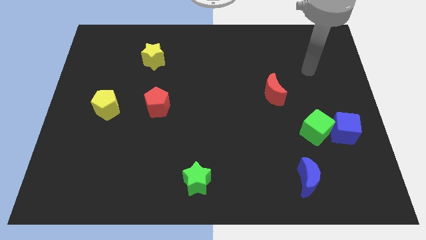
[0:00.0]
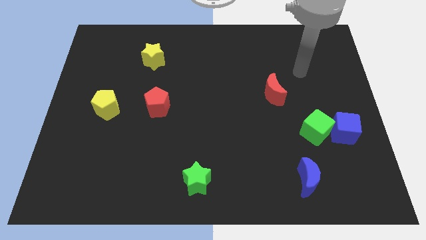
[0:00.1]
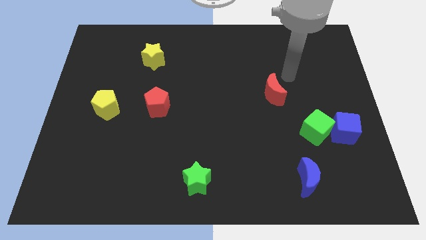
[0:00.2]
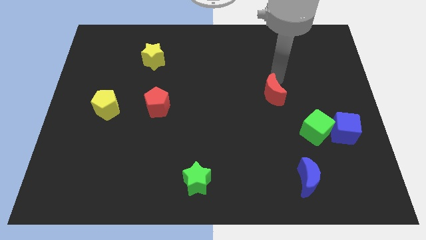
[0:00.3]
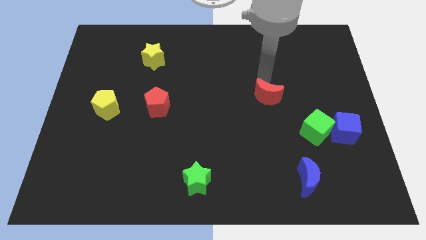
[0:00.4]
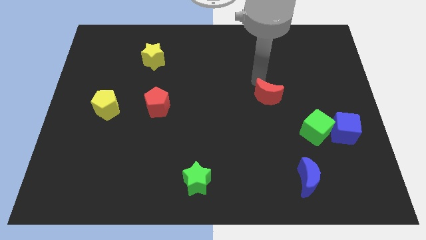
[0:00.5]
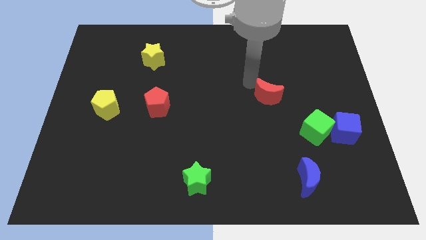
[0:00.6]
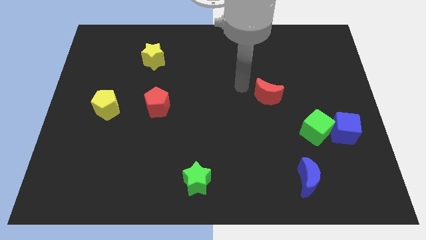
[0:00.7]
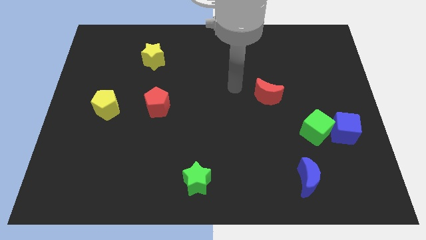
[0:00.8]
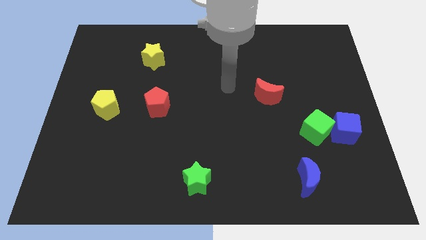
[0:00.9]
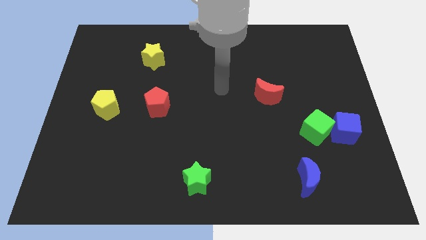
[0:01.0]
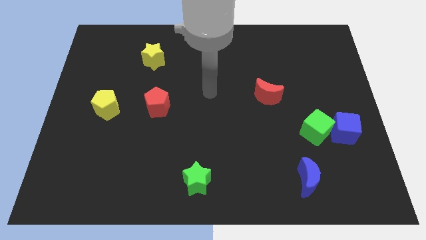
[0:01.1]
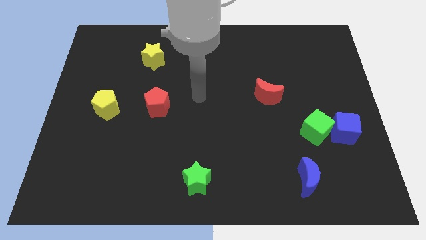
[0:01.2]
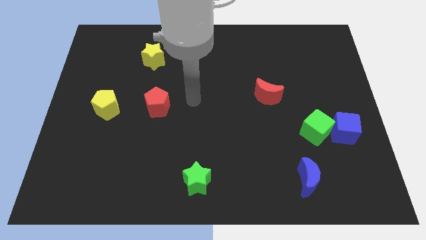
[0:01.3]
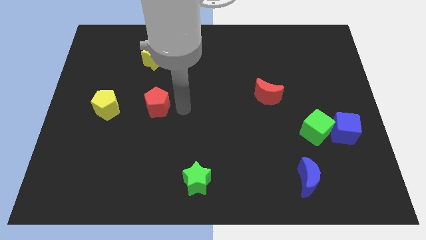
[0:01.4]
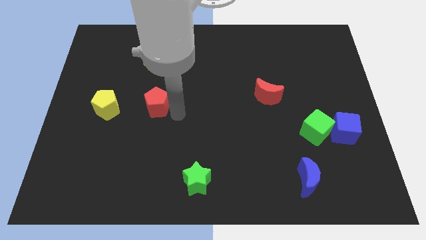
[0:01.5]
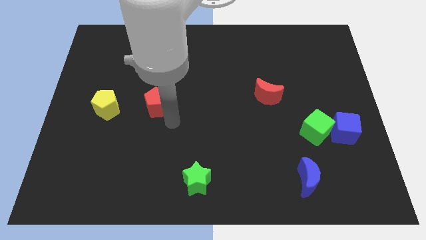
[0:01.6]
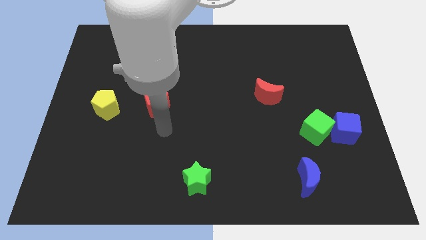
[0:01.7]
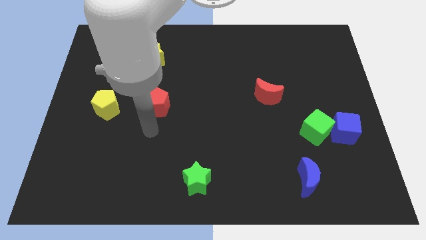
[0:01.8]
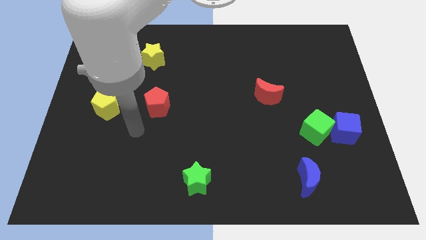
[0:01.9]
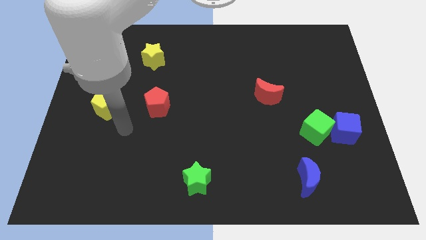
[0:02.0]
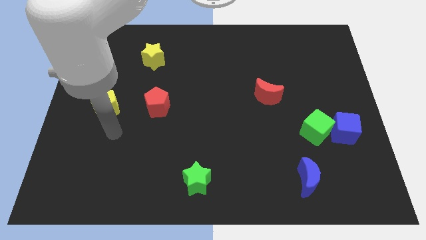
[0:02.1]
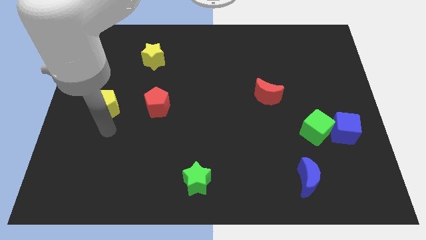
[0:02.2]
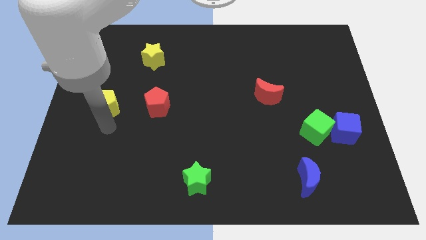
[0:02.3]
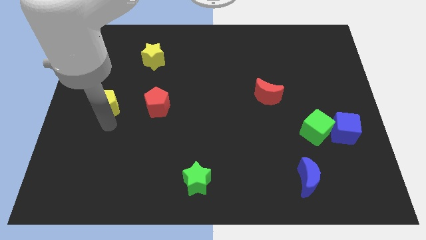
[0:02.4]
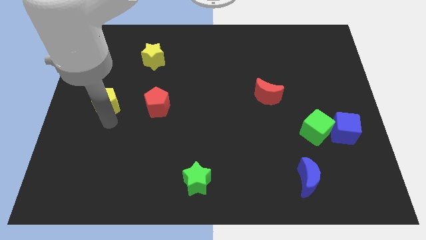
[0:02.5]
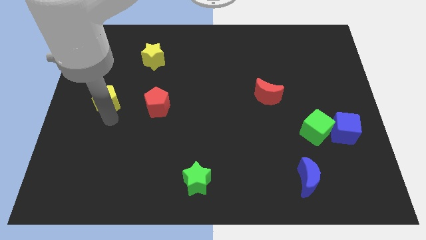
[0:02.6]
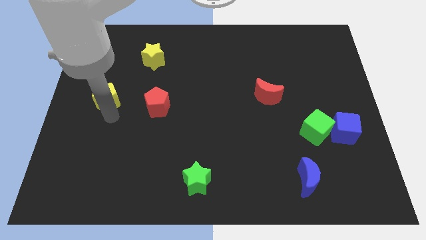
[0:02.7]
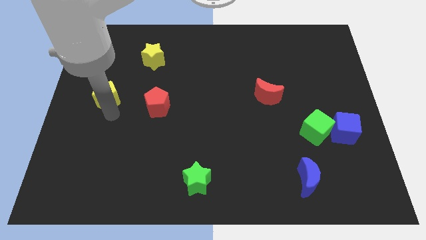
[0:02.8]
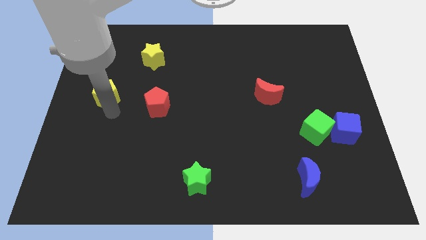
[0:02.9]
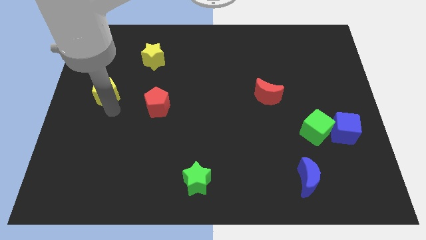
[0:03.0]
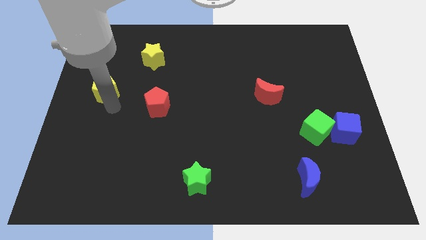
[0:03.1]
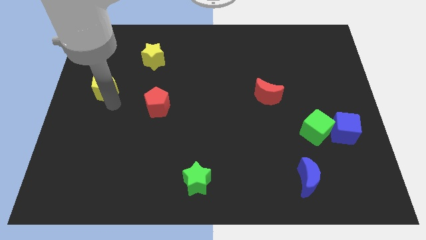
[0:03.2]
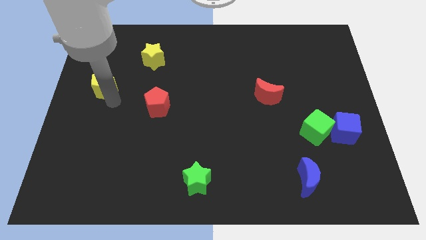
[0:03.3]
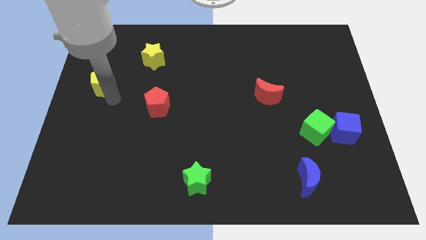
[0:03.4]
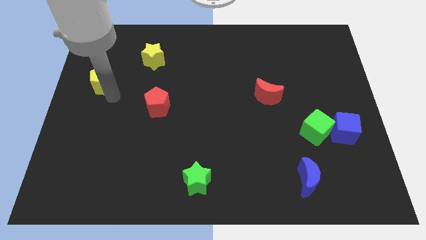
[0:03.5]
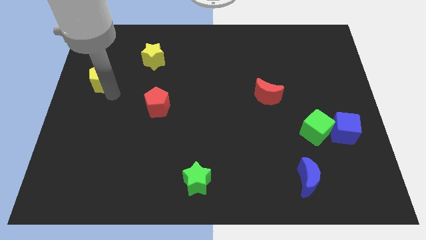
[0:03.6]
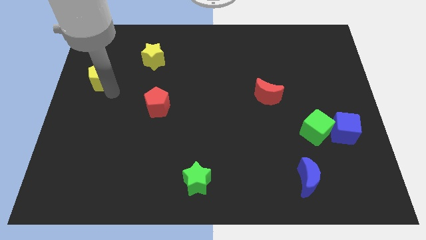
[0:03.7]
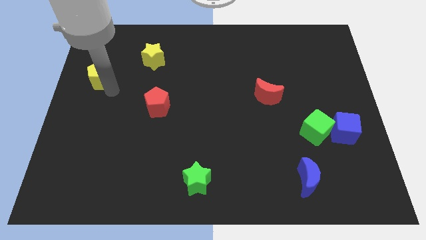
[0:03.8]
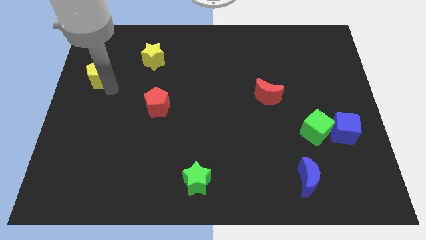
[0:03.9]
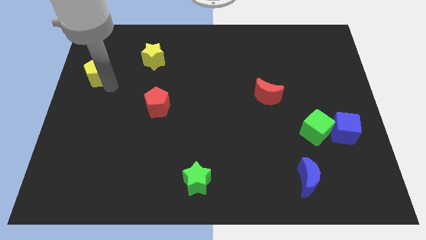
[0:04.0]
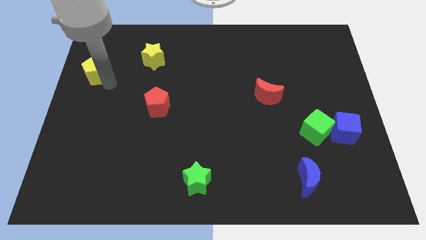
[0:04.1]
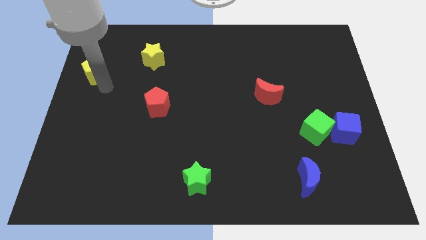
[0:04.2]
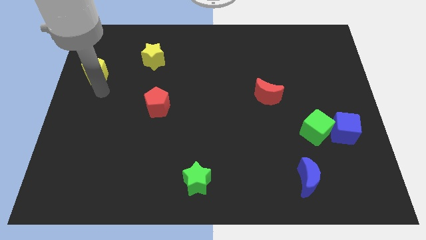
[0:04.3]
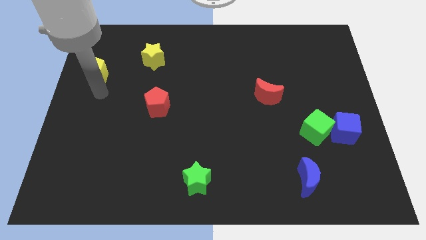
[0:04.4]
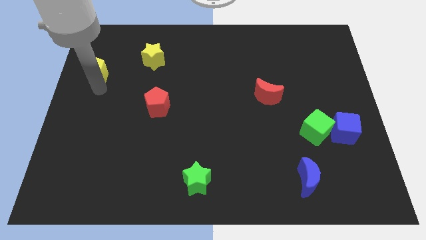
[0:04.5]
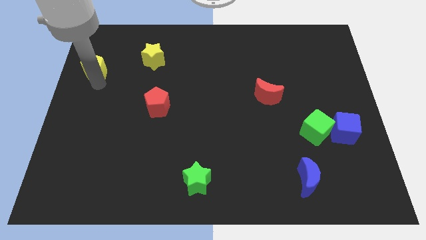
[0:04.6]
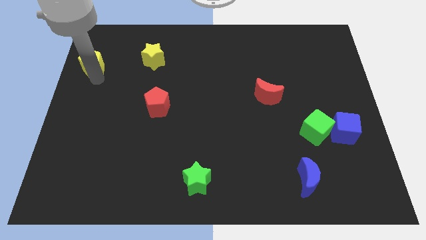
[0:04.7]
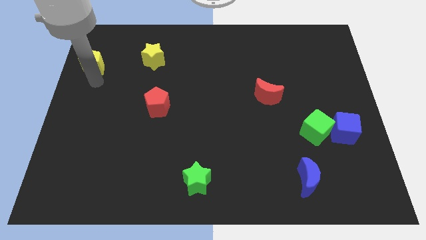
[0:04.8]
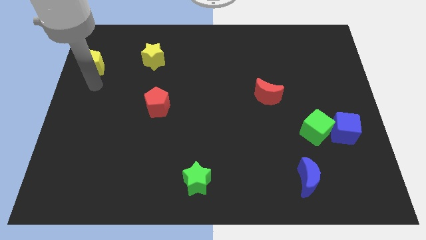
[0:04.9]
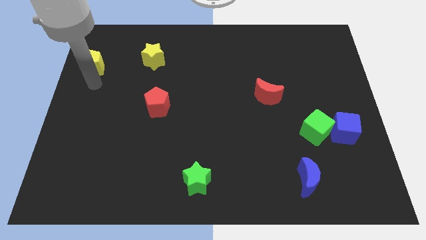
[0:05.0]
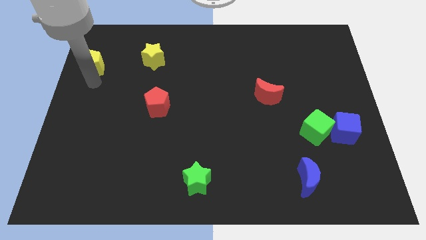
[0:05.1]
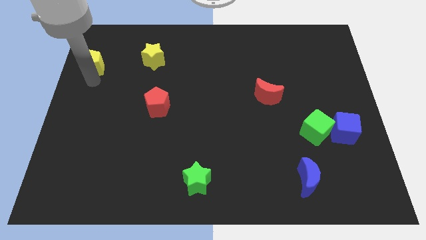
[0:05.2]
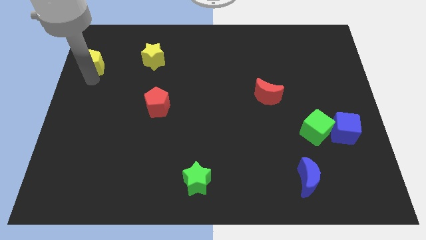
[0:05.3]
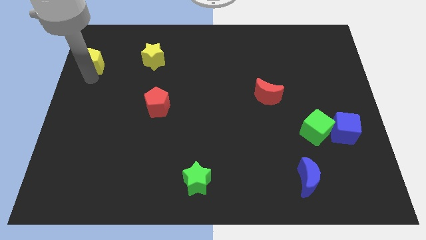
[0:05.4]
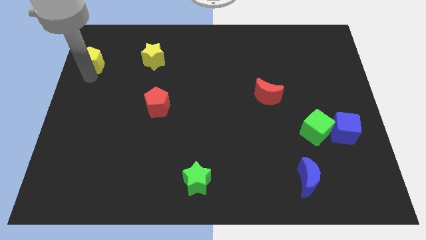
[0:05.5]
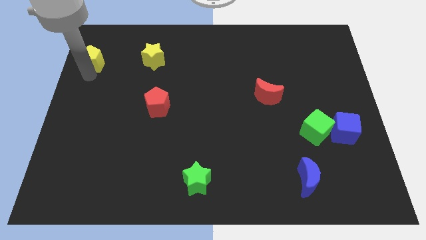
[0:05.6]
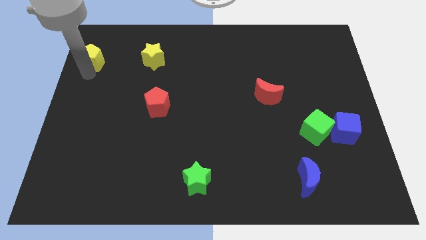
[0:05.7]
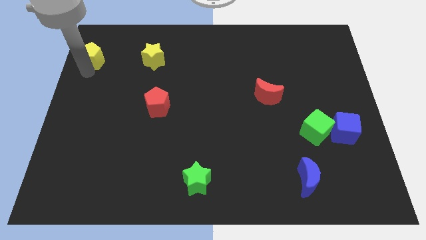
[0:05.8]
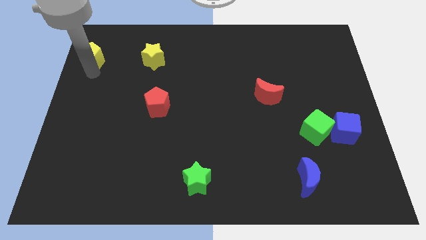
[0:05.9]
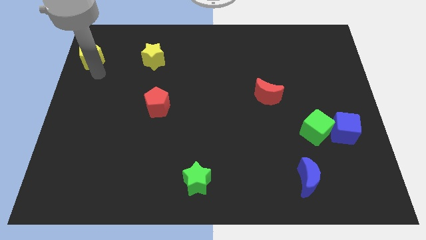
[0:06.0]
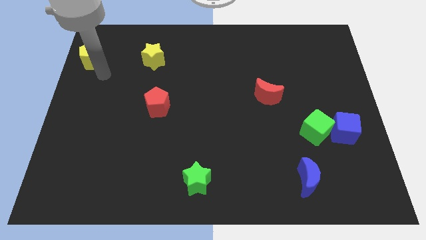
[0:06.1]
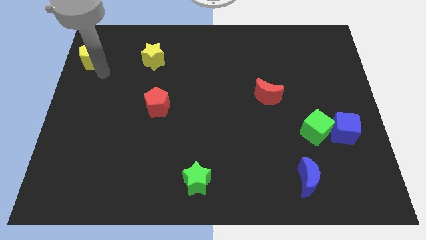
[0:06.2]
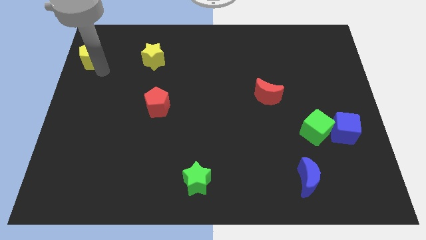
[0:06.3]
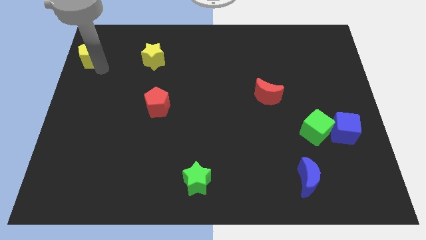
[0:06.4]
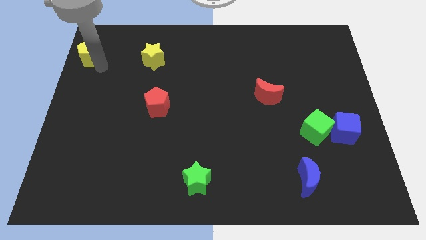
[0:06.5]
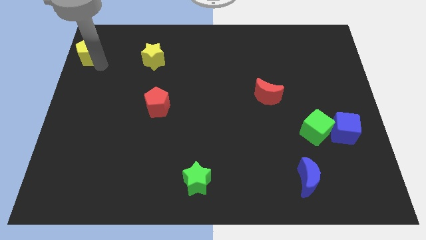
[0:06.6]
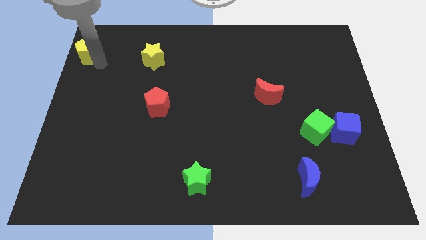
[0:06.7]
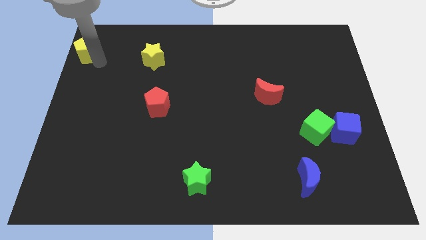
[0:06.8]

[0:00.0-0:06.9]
move the yellow pentagon to the top left corner
